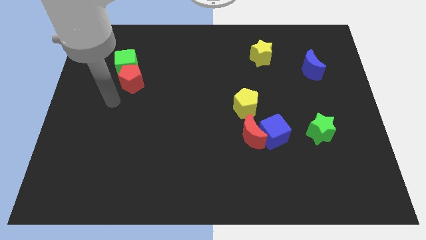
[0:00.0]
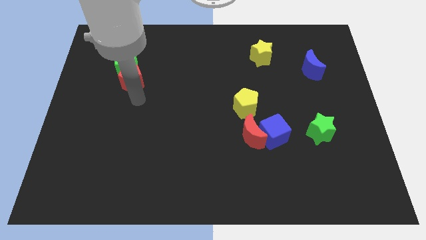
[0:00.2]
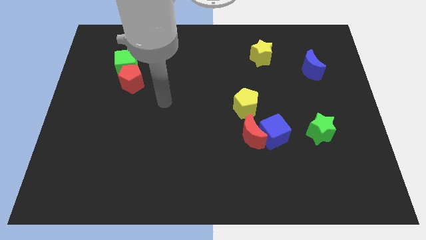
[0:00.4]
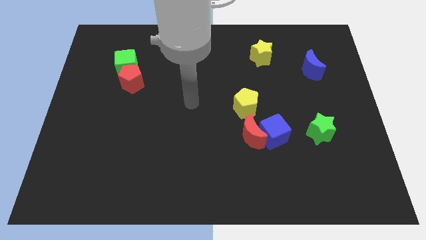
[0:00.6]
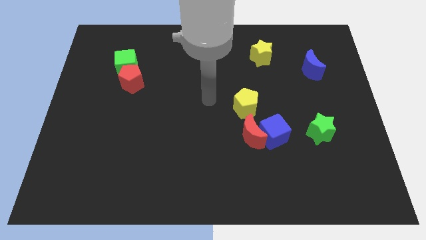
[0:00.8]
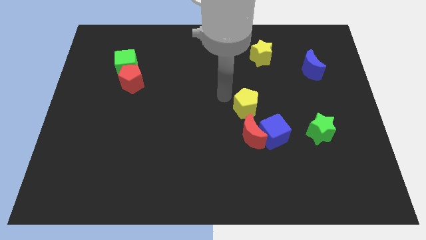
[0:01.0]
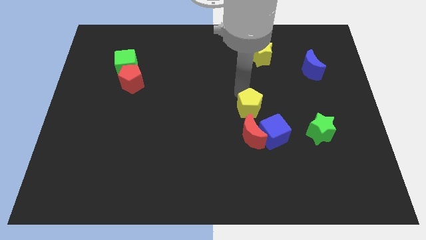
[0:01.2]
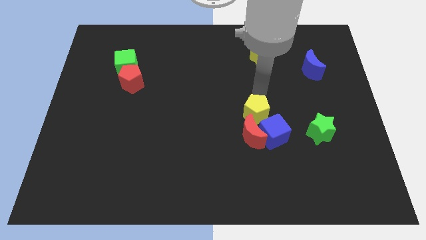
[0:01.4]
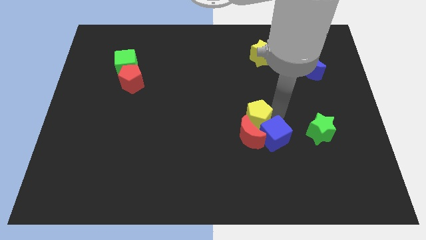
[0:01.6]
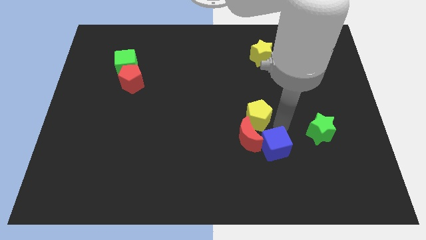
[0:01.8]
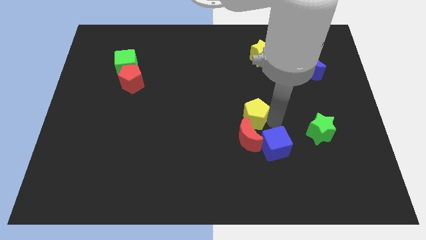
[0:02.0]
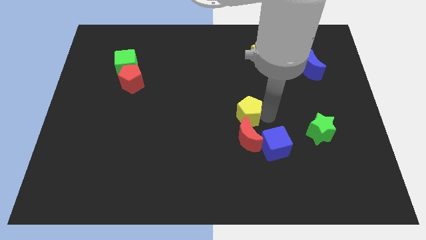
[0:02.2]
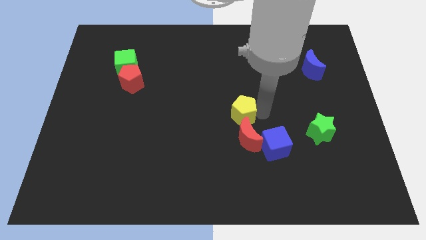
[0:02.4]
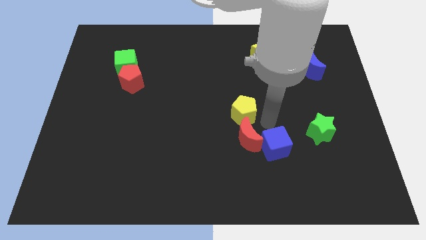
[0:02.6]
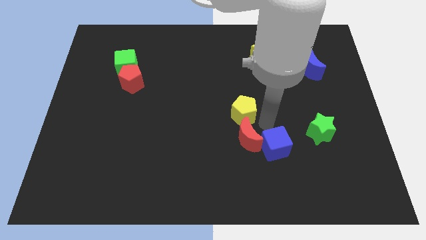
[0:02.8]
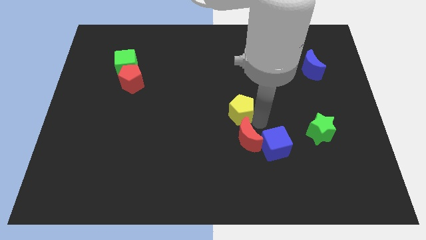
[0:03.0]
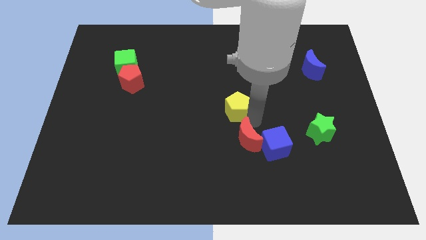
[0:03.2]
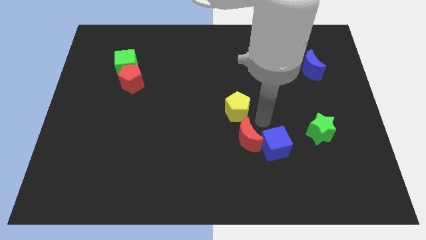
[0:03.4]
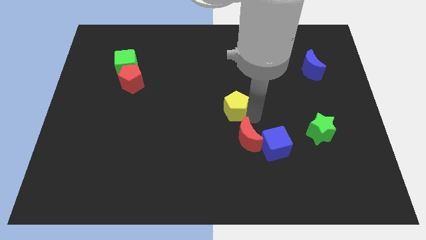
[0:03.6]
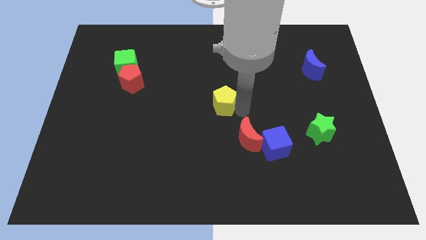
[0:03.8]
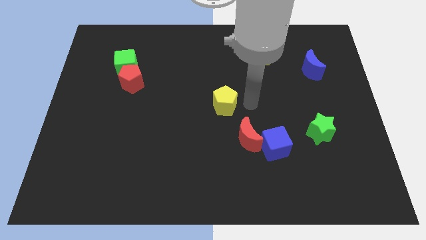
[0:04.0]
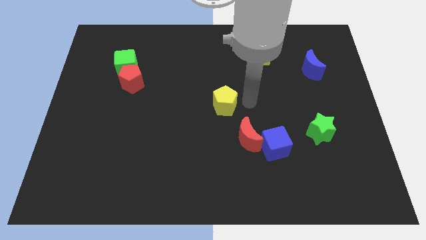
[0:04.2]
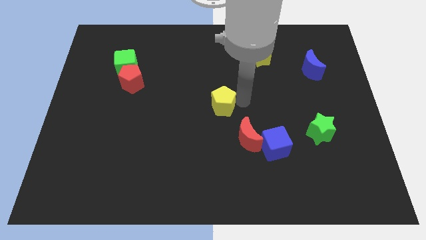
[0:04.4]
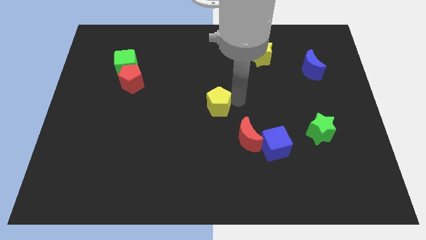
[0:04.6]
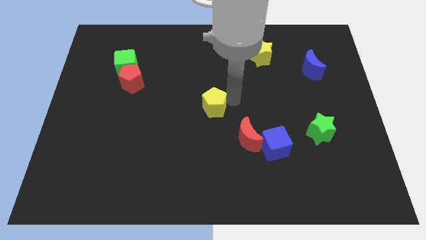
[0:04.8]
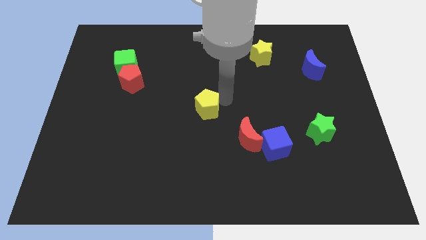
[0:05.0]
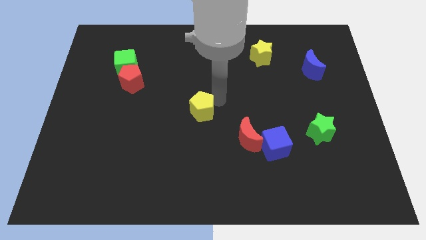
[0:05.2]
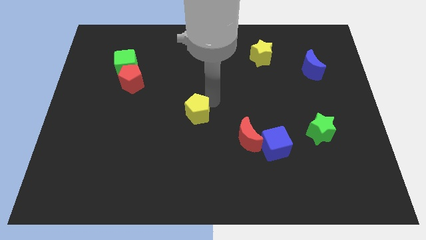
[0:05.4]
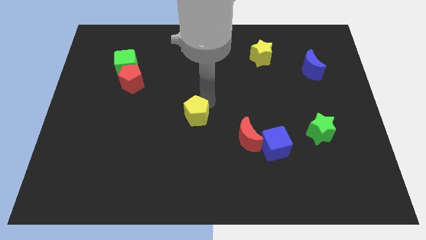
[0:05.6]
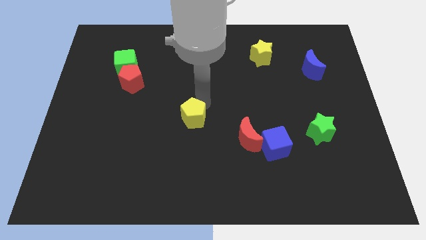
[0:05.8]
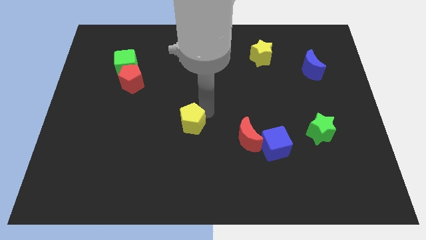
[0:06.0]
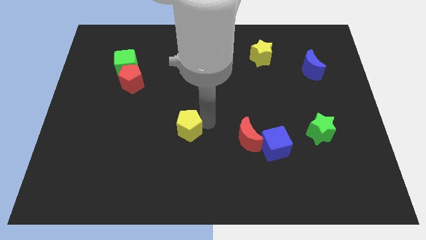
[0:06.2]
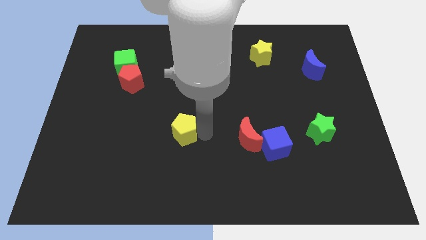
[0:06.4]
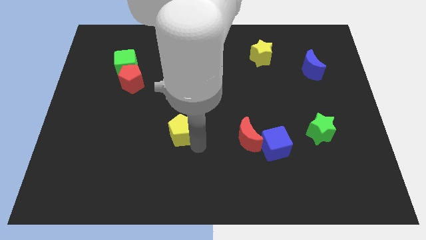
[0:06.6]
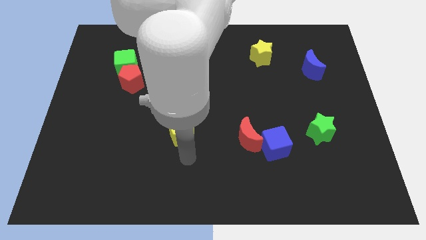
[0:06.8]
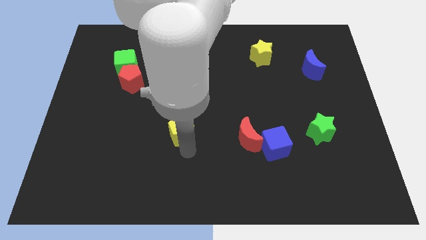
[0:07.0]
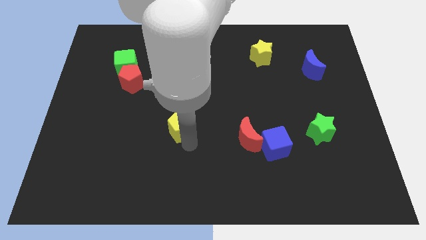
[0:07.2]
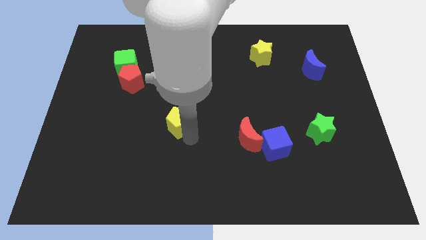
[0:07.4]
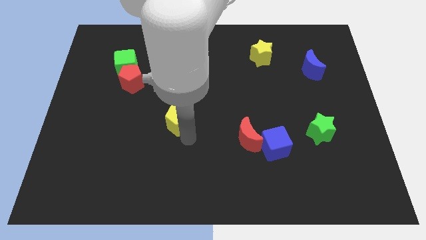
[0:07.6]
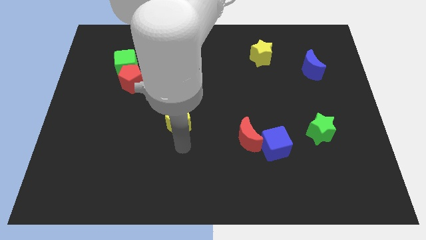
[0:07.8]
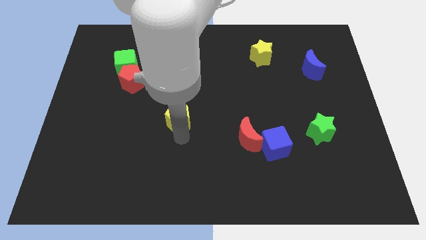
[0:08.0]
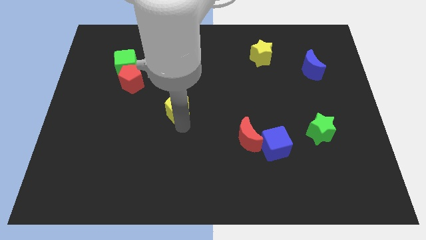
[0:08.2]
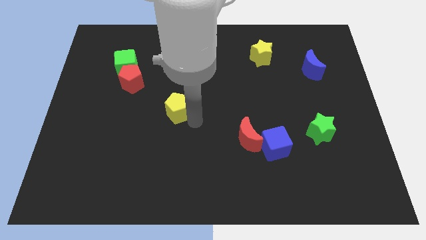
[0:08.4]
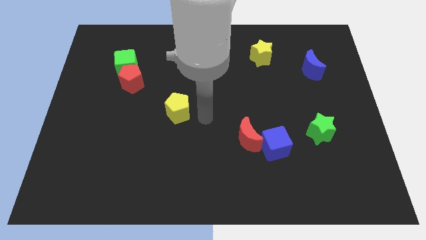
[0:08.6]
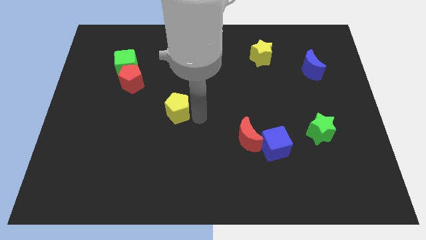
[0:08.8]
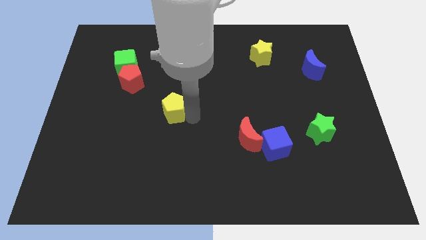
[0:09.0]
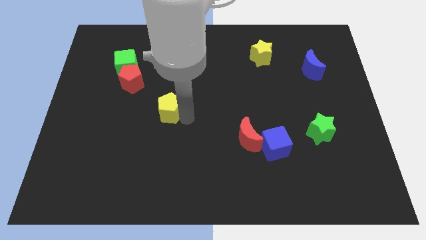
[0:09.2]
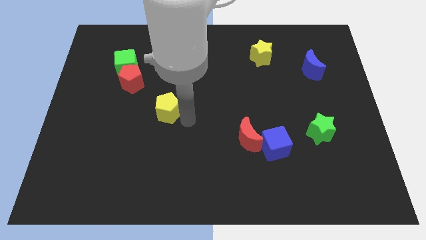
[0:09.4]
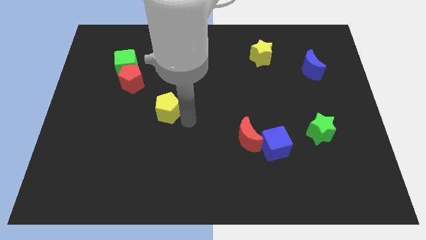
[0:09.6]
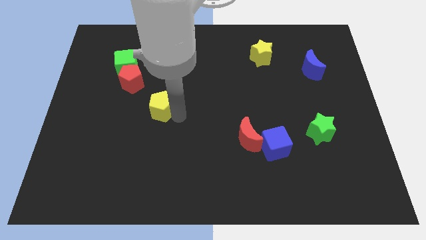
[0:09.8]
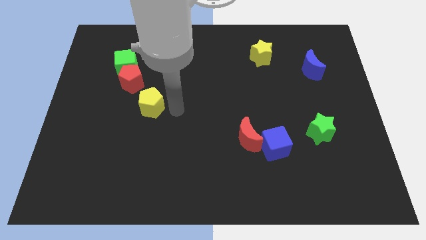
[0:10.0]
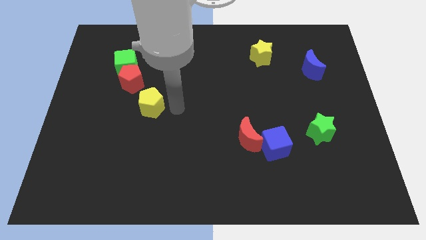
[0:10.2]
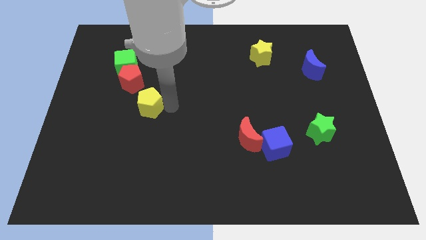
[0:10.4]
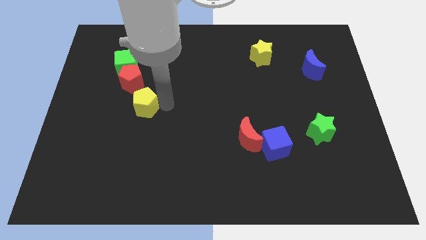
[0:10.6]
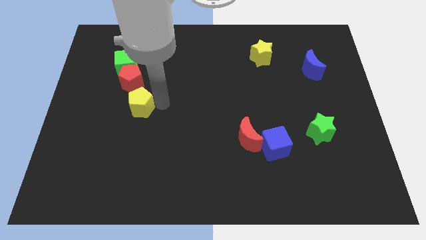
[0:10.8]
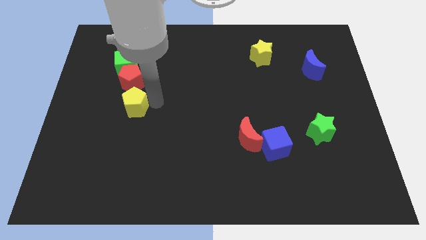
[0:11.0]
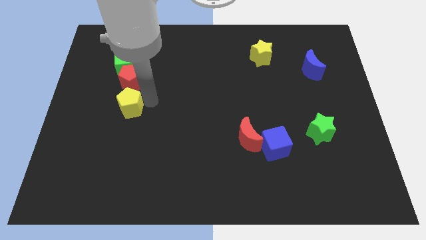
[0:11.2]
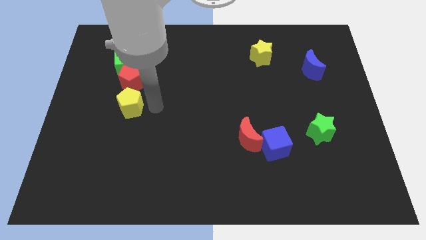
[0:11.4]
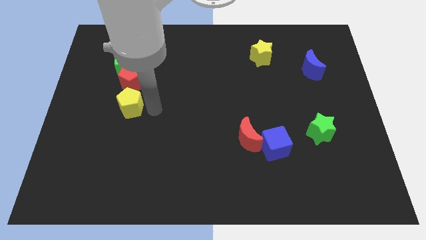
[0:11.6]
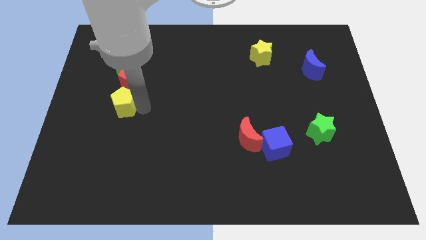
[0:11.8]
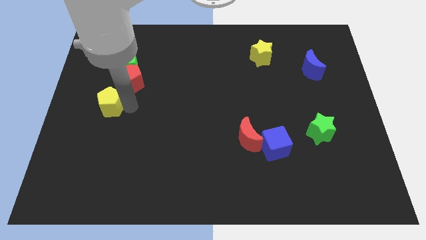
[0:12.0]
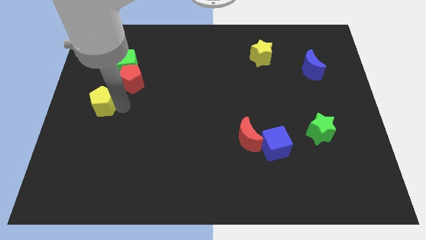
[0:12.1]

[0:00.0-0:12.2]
slide the yellow pentagon to the left side of the board
